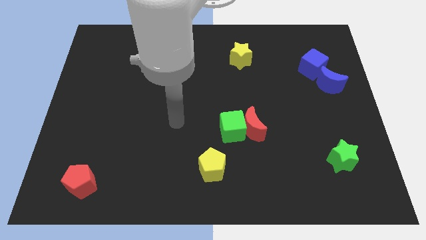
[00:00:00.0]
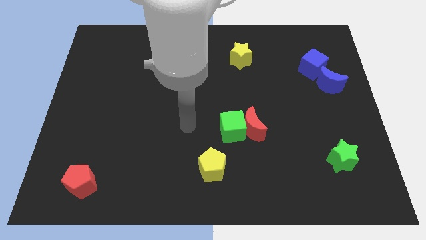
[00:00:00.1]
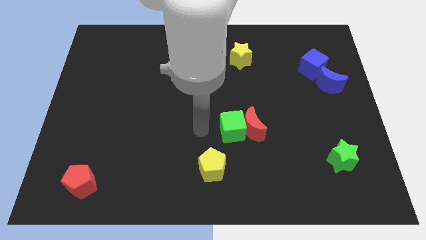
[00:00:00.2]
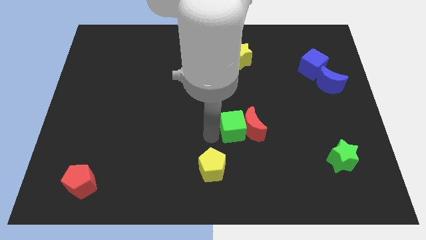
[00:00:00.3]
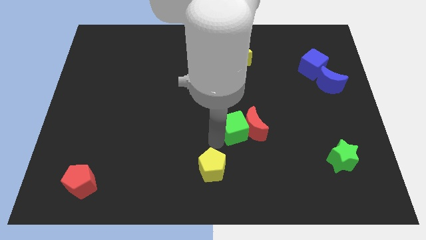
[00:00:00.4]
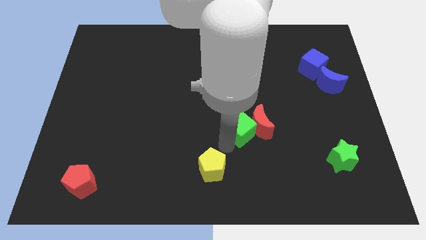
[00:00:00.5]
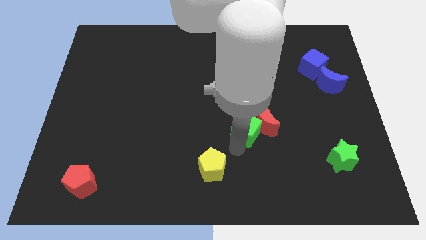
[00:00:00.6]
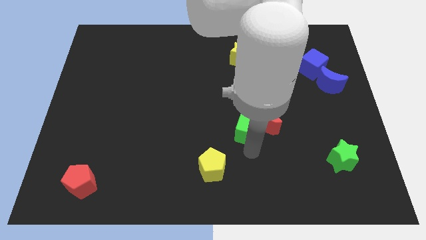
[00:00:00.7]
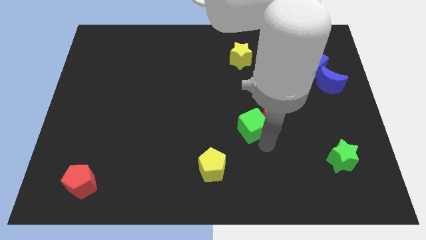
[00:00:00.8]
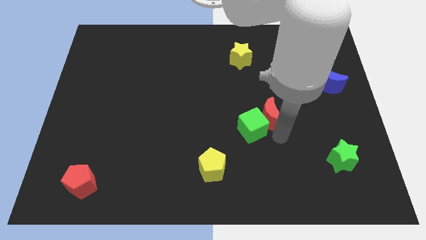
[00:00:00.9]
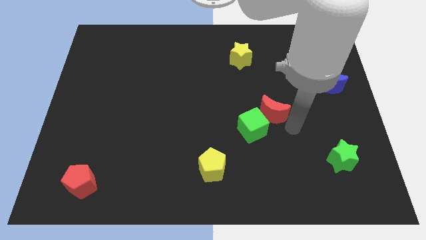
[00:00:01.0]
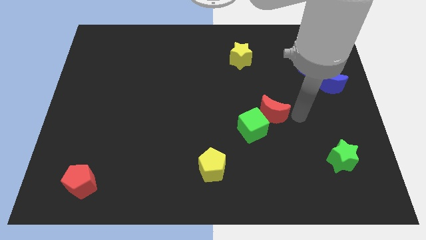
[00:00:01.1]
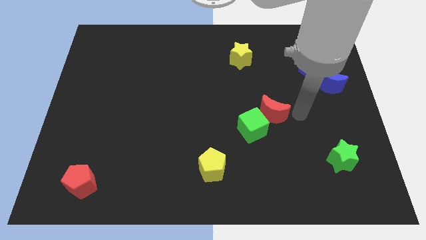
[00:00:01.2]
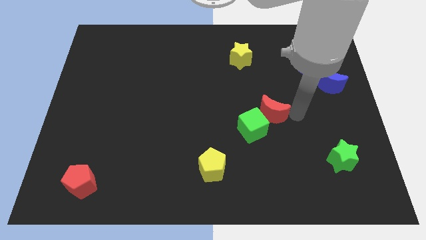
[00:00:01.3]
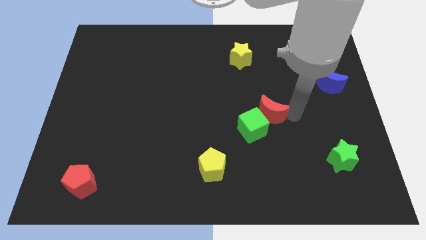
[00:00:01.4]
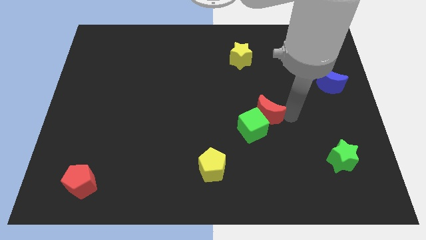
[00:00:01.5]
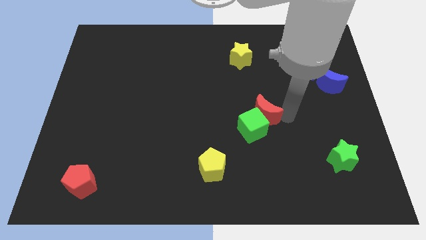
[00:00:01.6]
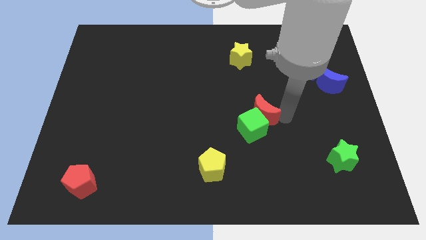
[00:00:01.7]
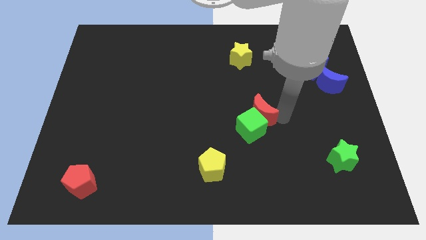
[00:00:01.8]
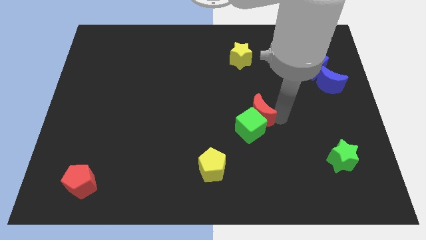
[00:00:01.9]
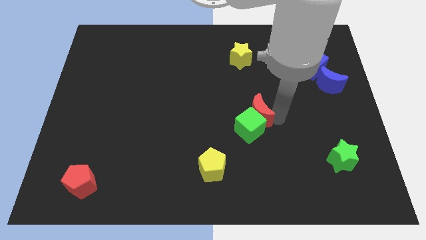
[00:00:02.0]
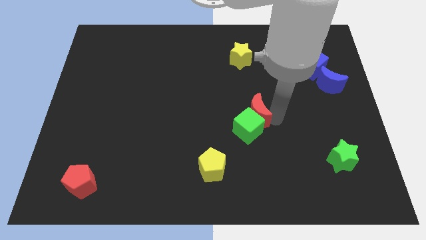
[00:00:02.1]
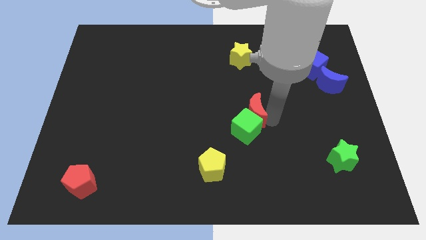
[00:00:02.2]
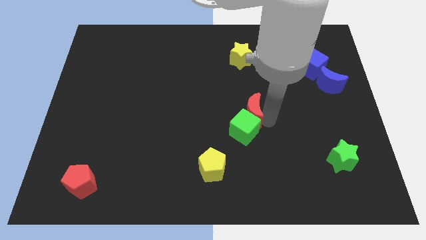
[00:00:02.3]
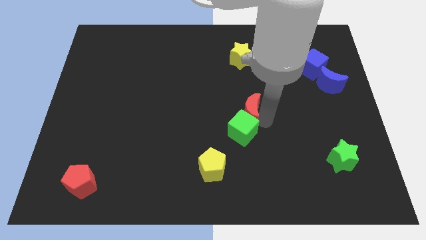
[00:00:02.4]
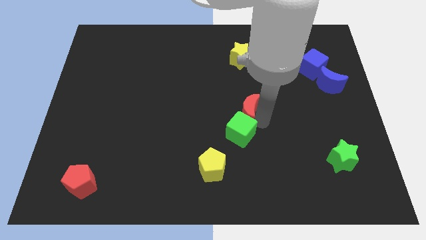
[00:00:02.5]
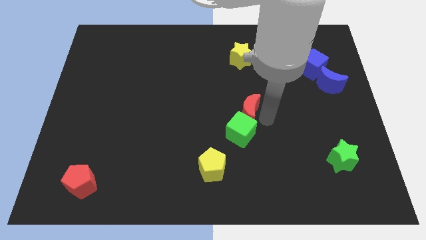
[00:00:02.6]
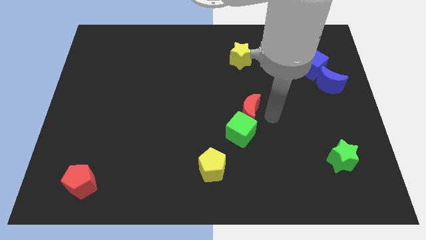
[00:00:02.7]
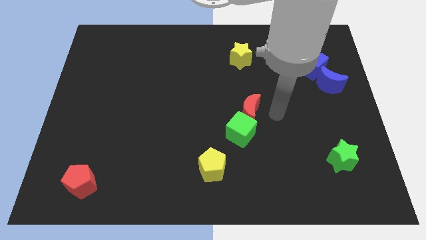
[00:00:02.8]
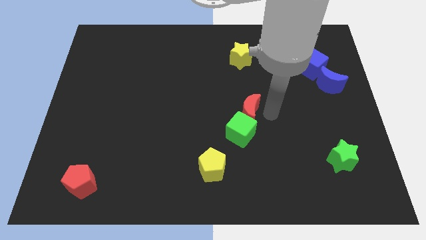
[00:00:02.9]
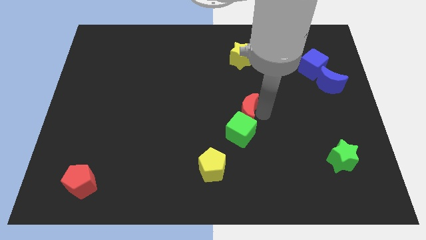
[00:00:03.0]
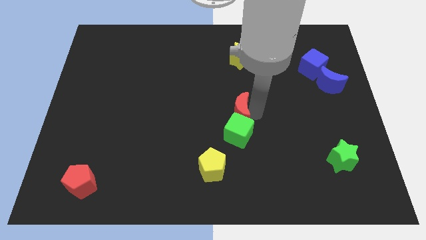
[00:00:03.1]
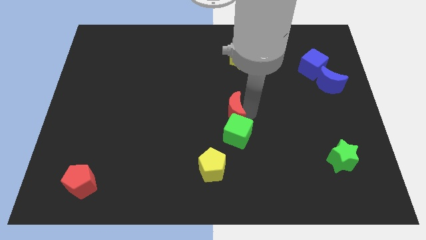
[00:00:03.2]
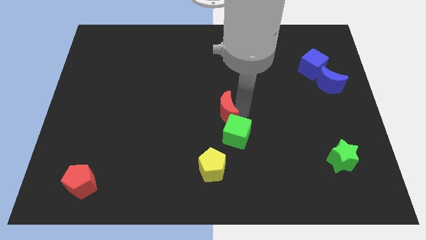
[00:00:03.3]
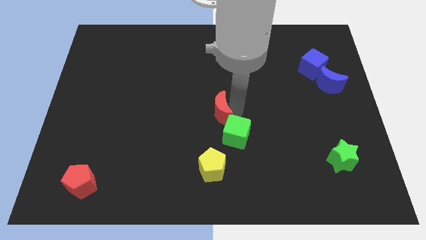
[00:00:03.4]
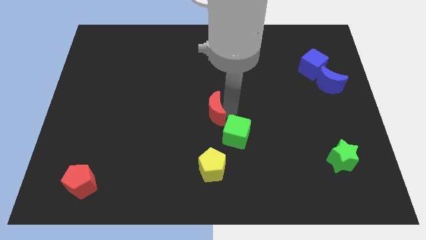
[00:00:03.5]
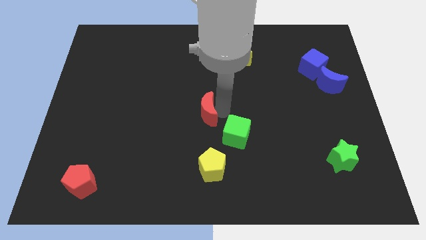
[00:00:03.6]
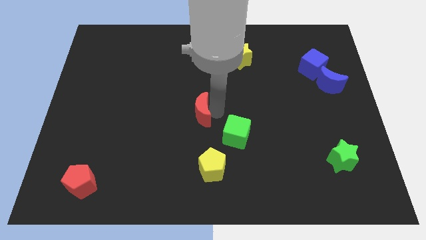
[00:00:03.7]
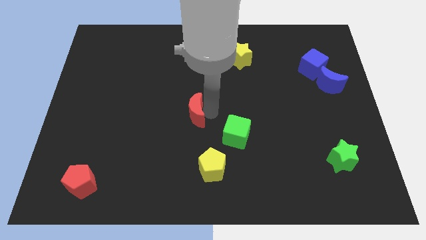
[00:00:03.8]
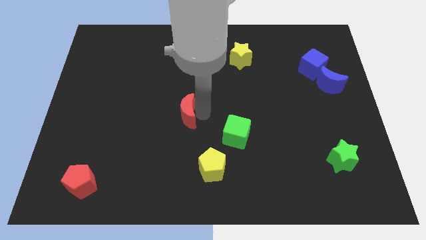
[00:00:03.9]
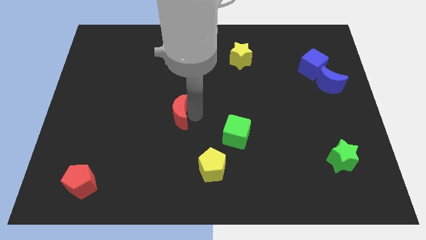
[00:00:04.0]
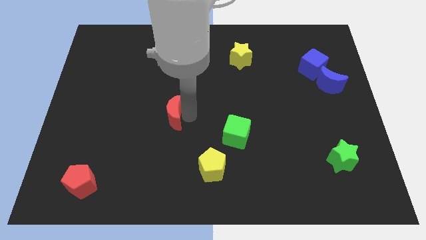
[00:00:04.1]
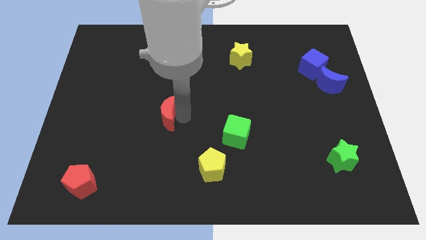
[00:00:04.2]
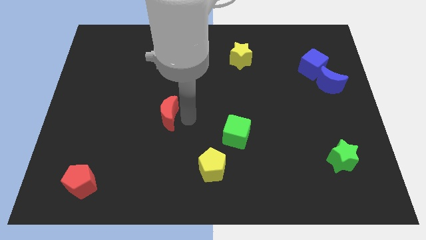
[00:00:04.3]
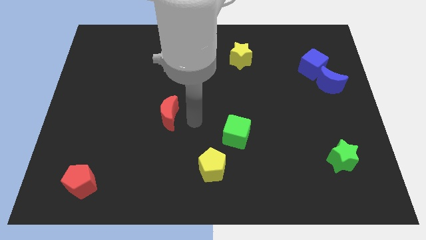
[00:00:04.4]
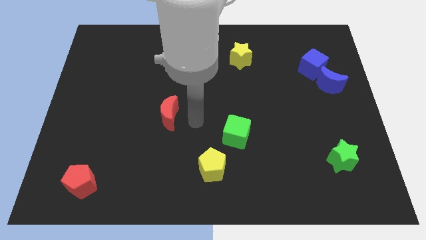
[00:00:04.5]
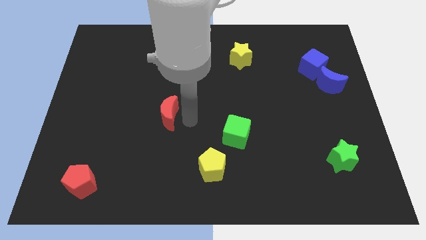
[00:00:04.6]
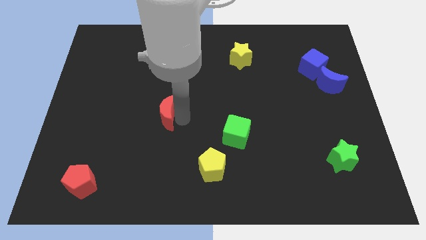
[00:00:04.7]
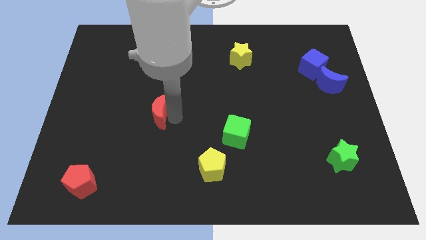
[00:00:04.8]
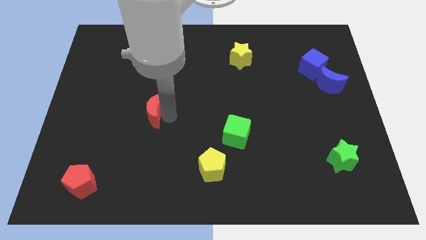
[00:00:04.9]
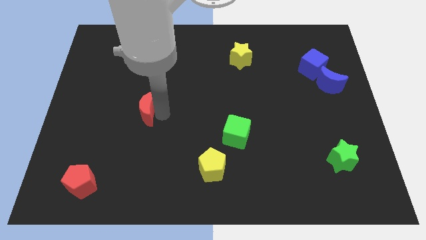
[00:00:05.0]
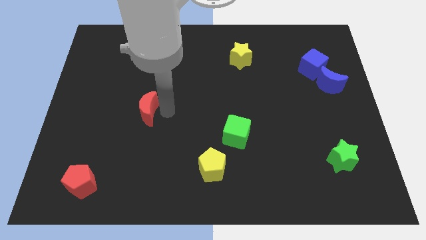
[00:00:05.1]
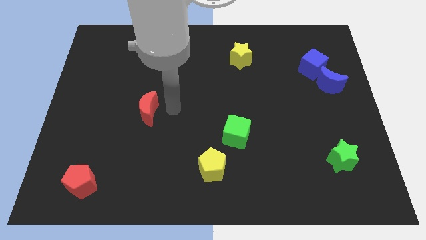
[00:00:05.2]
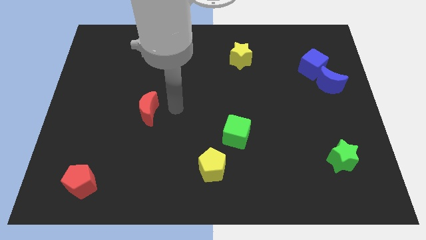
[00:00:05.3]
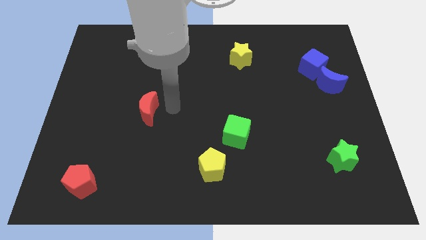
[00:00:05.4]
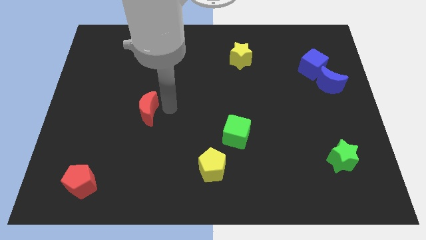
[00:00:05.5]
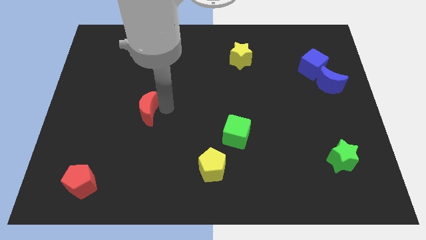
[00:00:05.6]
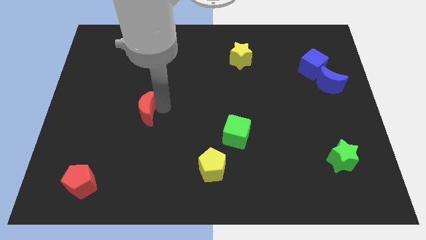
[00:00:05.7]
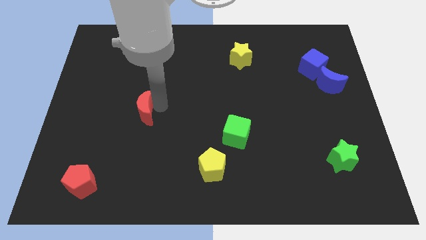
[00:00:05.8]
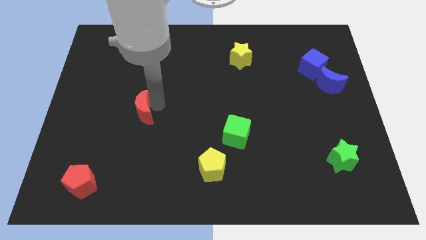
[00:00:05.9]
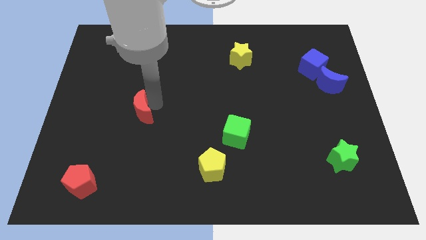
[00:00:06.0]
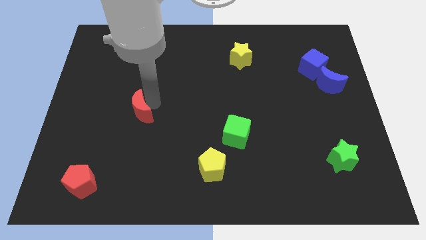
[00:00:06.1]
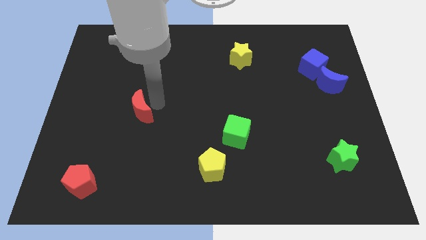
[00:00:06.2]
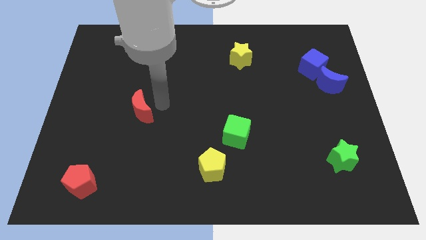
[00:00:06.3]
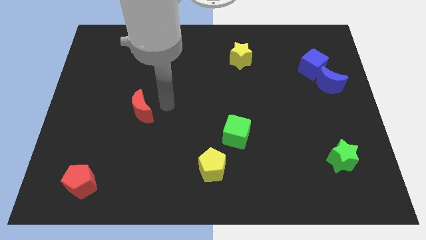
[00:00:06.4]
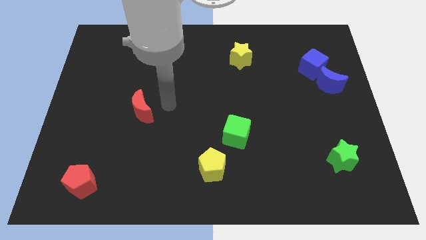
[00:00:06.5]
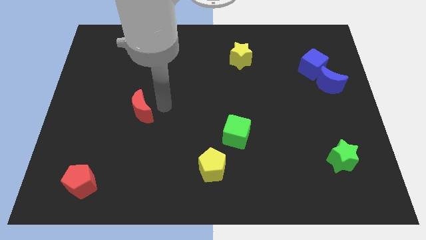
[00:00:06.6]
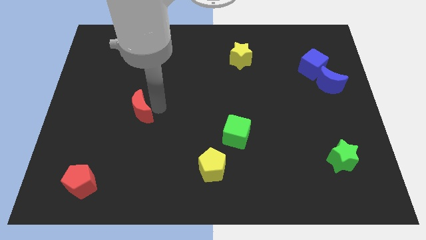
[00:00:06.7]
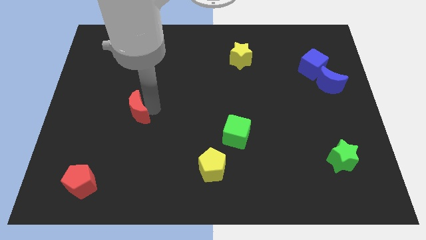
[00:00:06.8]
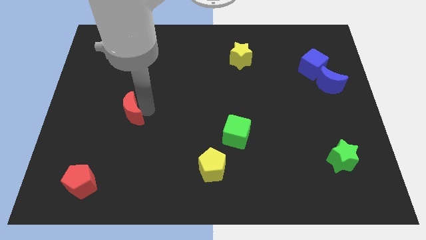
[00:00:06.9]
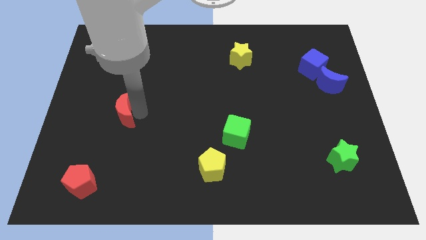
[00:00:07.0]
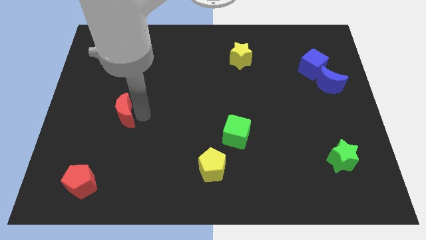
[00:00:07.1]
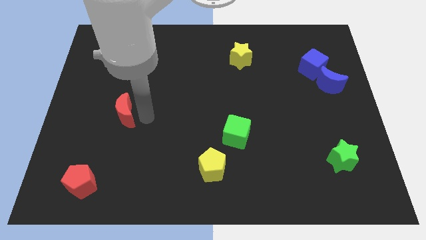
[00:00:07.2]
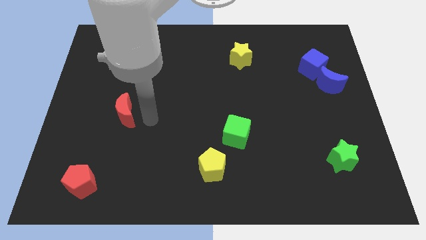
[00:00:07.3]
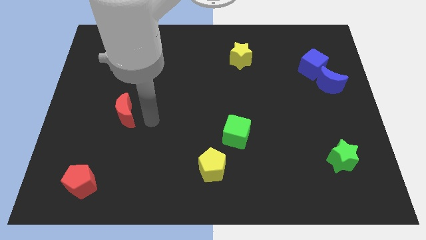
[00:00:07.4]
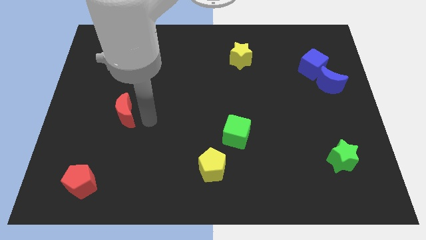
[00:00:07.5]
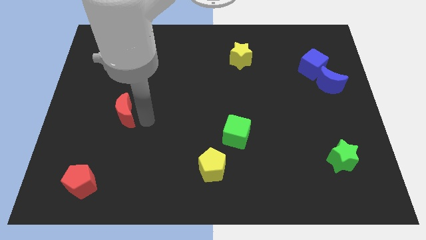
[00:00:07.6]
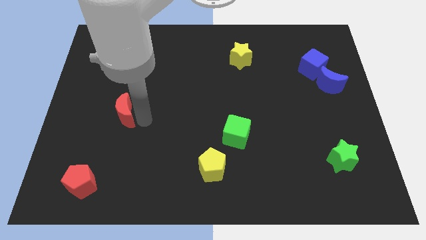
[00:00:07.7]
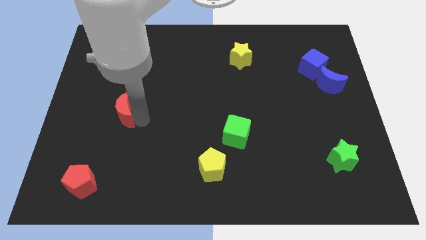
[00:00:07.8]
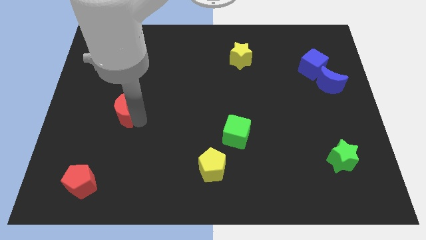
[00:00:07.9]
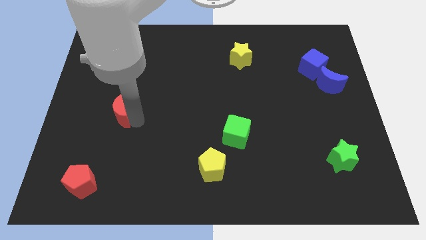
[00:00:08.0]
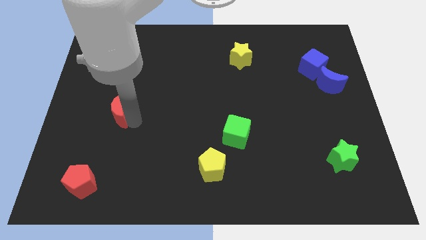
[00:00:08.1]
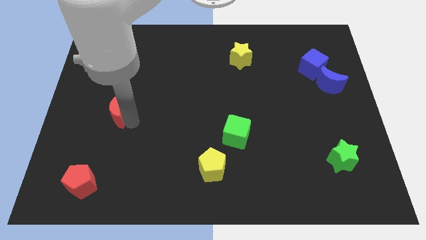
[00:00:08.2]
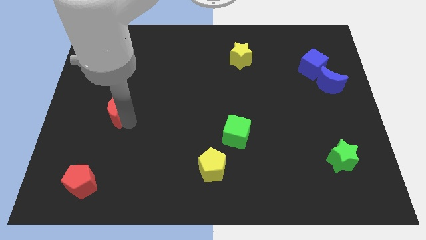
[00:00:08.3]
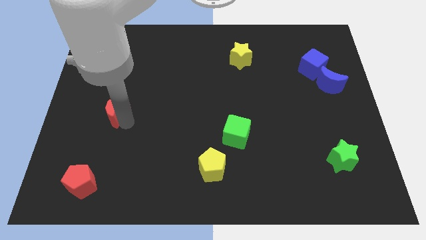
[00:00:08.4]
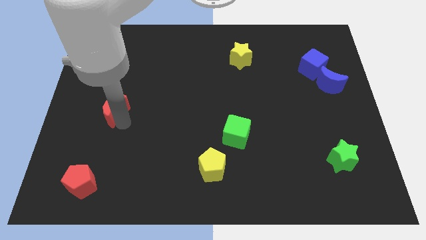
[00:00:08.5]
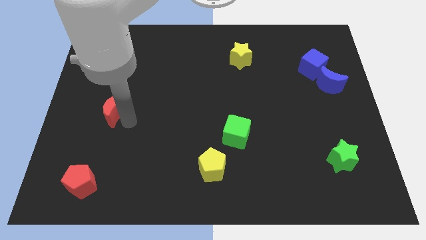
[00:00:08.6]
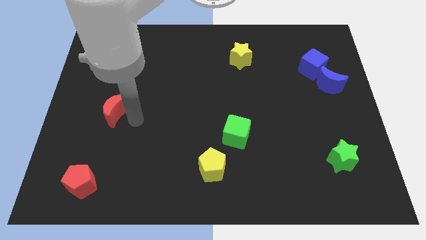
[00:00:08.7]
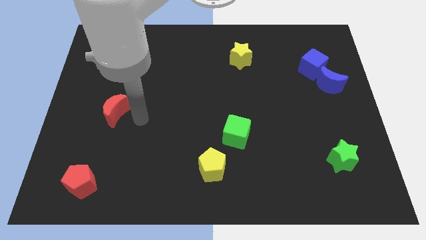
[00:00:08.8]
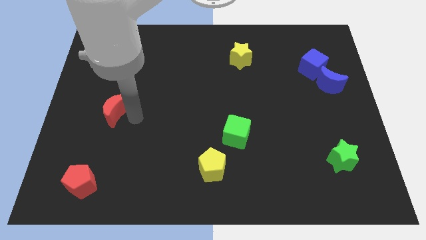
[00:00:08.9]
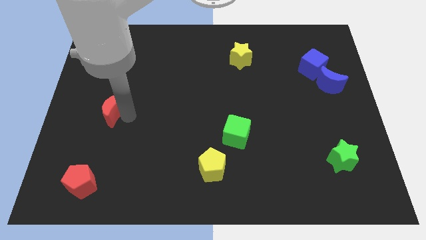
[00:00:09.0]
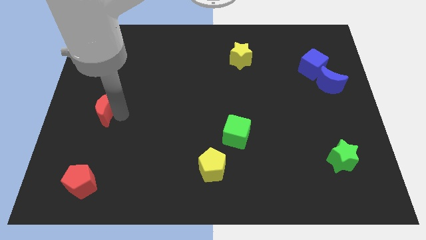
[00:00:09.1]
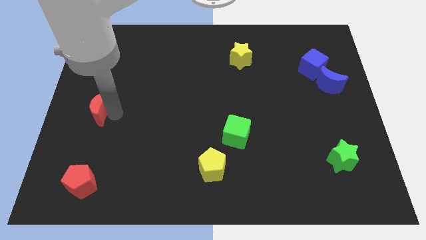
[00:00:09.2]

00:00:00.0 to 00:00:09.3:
push the red moon to the center left
